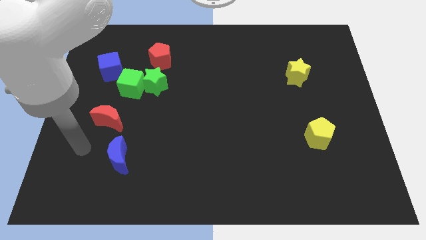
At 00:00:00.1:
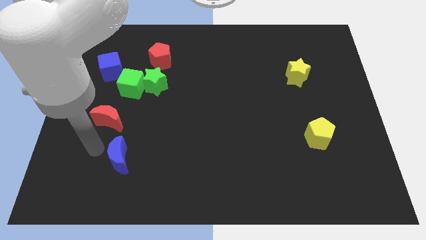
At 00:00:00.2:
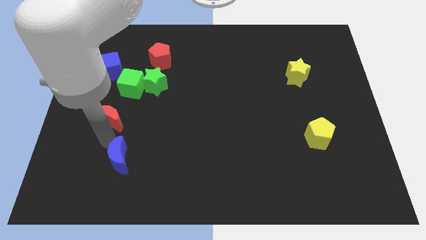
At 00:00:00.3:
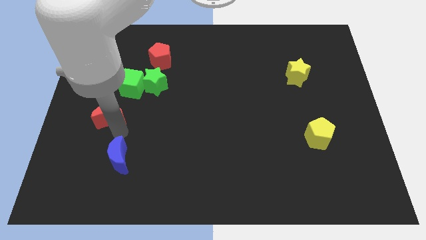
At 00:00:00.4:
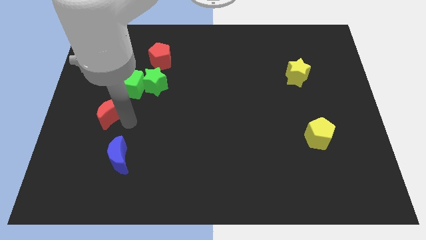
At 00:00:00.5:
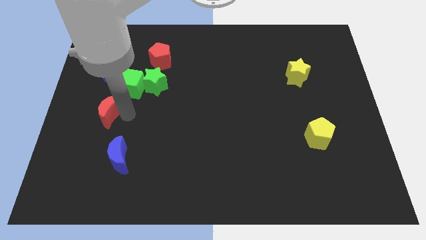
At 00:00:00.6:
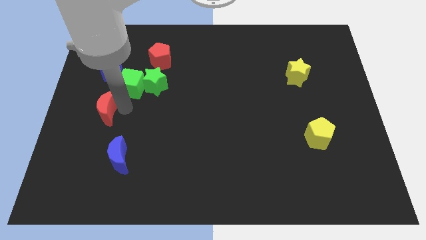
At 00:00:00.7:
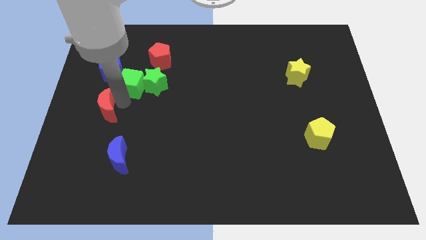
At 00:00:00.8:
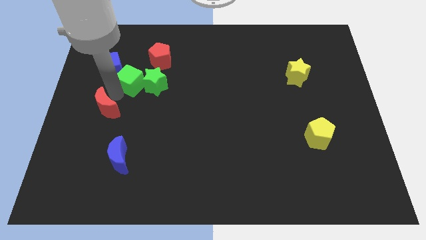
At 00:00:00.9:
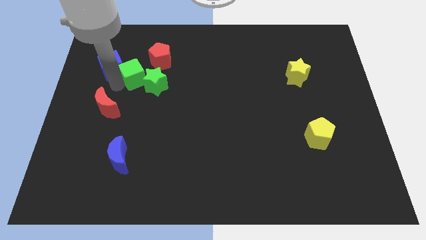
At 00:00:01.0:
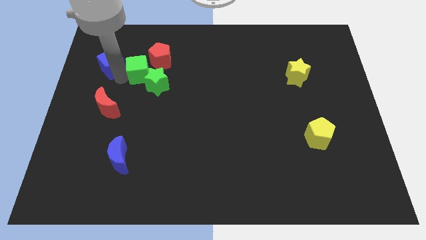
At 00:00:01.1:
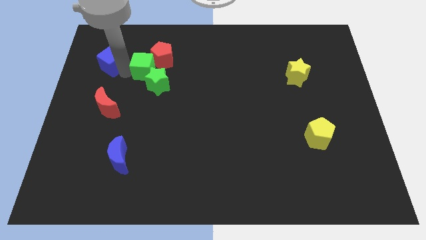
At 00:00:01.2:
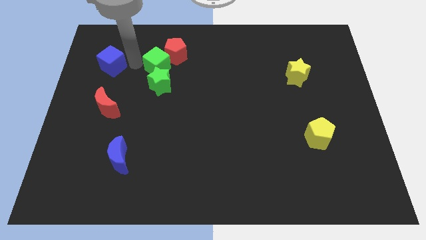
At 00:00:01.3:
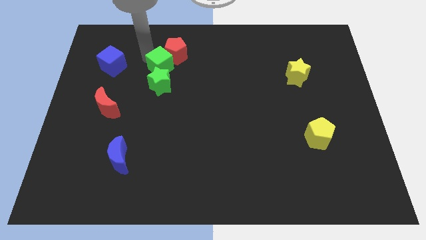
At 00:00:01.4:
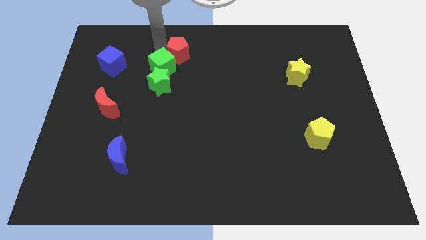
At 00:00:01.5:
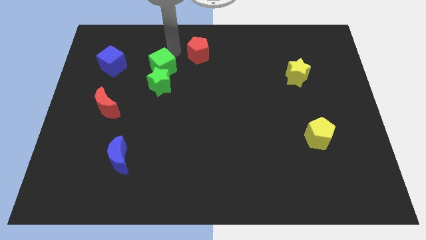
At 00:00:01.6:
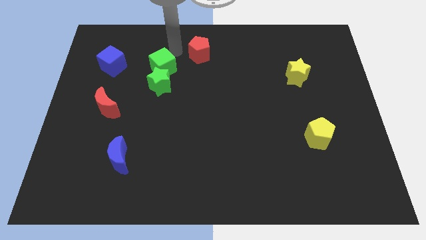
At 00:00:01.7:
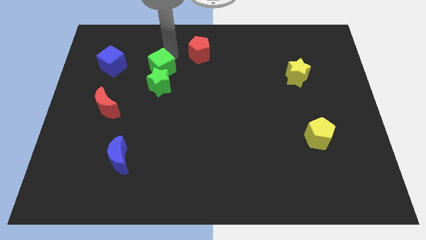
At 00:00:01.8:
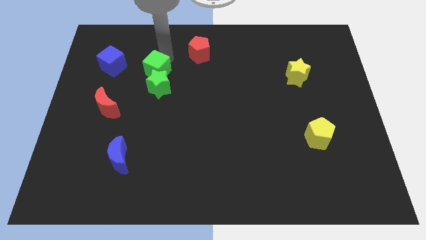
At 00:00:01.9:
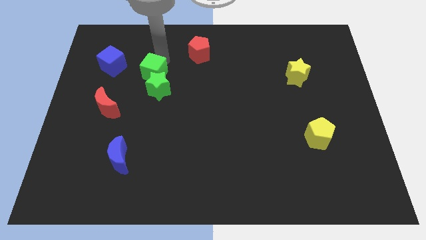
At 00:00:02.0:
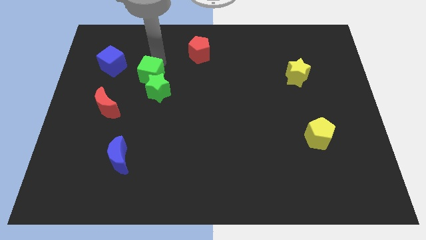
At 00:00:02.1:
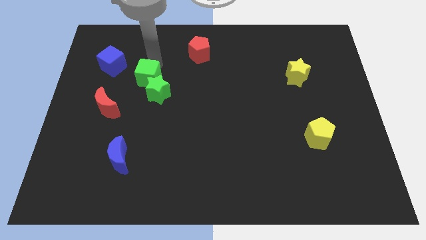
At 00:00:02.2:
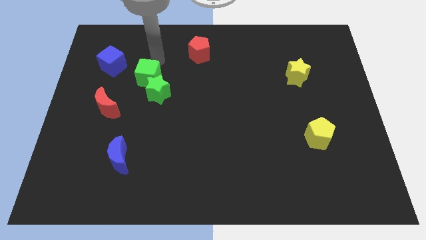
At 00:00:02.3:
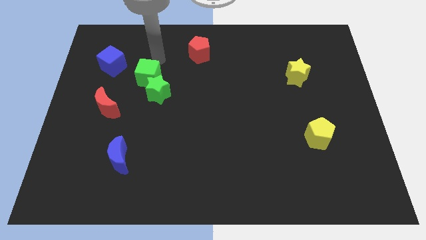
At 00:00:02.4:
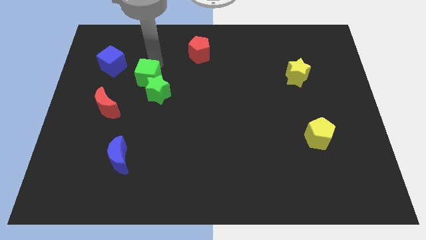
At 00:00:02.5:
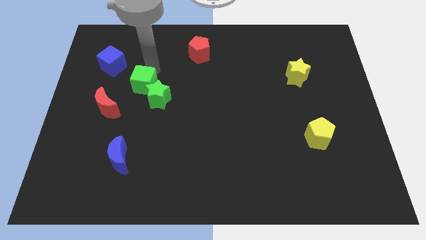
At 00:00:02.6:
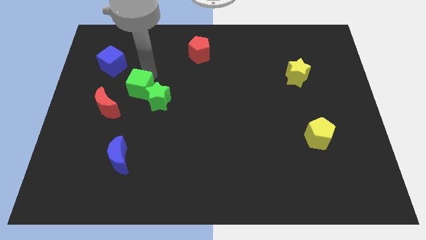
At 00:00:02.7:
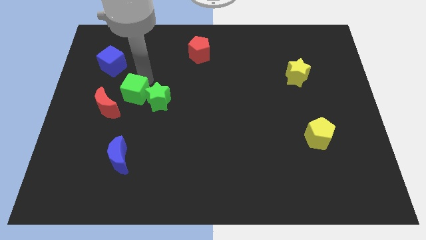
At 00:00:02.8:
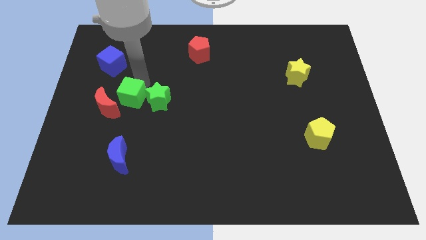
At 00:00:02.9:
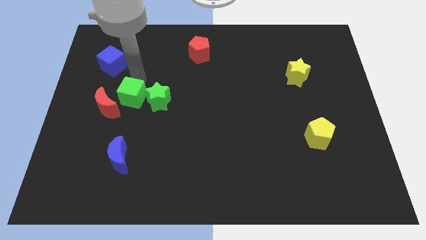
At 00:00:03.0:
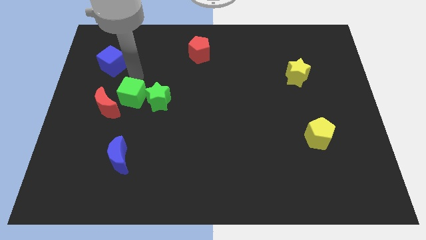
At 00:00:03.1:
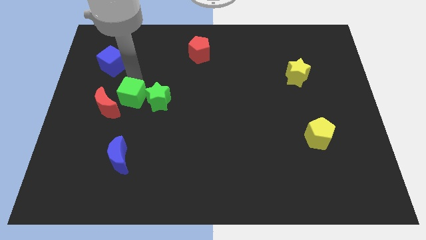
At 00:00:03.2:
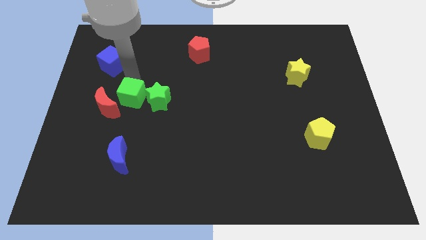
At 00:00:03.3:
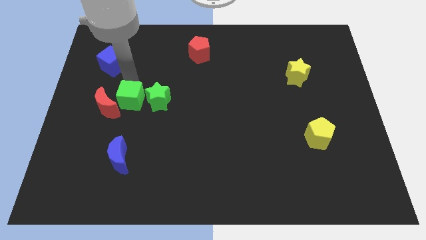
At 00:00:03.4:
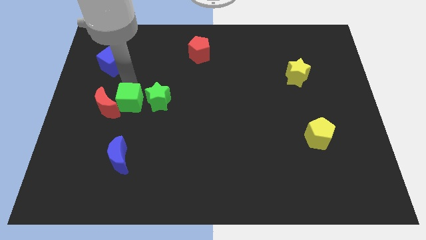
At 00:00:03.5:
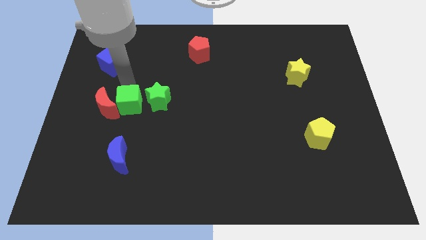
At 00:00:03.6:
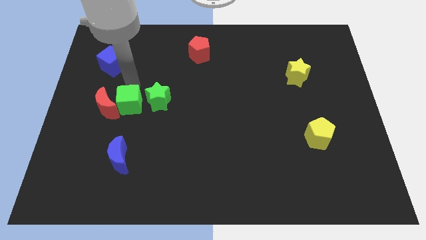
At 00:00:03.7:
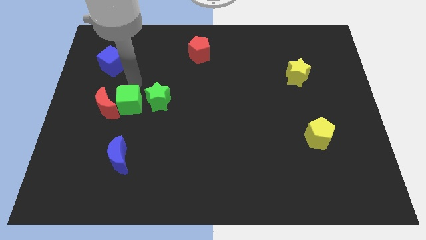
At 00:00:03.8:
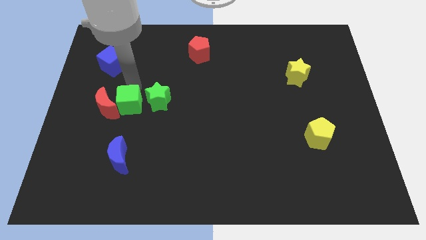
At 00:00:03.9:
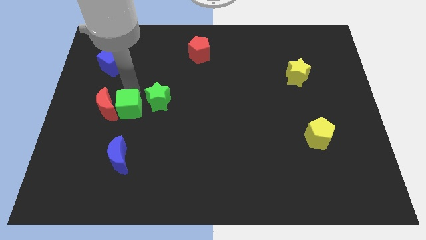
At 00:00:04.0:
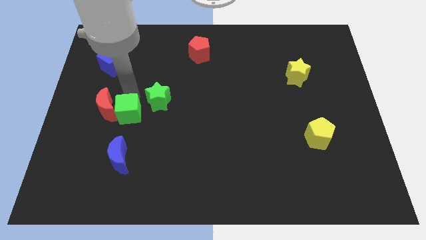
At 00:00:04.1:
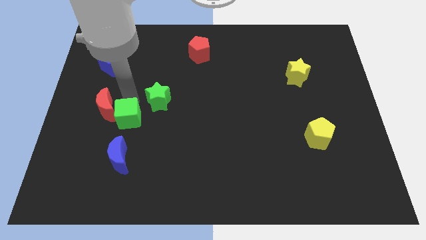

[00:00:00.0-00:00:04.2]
pull the green cube apart from the green star and blue cube

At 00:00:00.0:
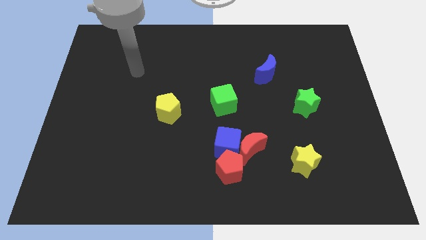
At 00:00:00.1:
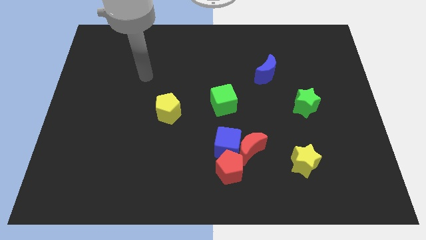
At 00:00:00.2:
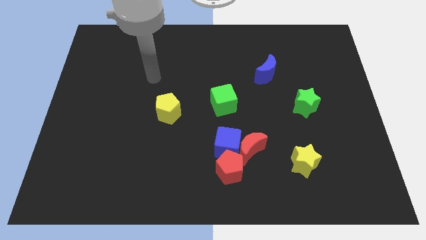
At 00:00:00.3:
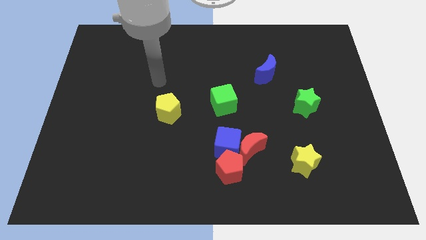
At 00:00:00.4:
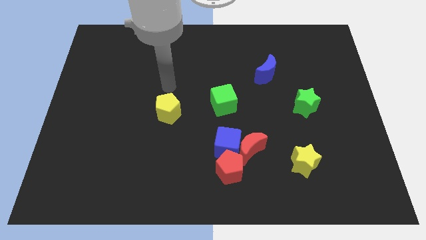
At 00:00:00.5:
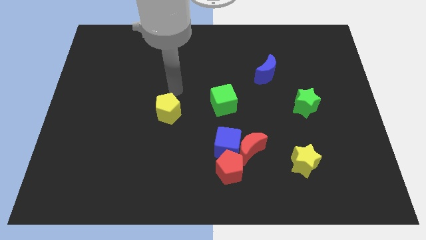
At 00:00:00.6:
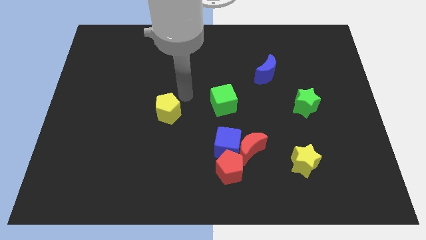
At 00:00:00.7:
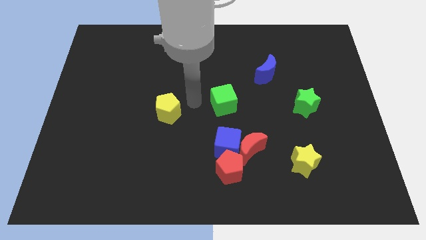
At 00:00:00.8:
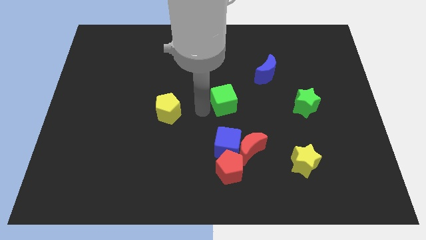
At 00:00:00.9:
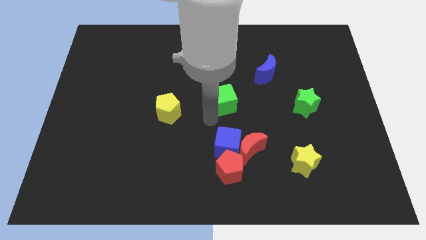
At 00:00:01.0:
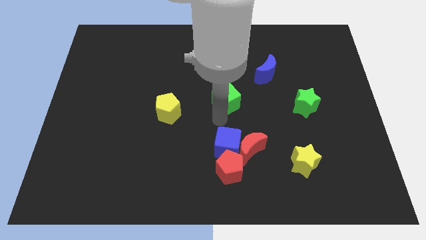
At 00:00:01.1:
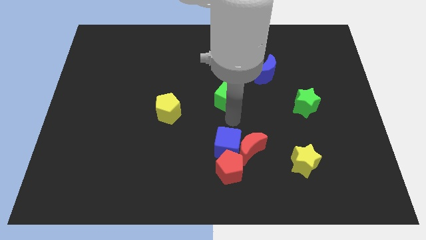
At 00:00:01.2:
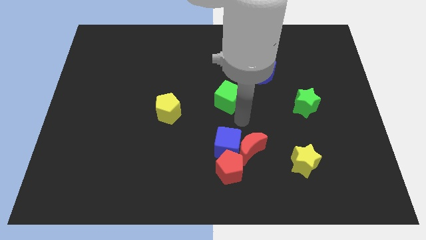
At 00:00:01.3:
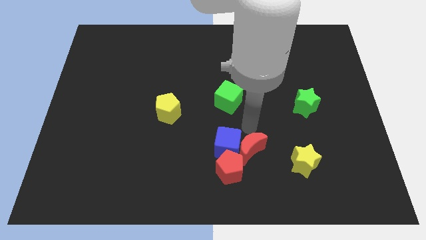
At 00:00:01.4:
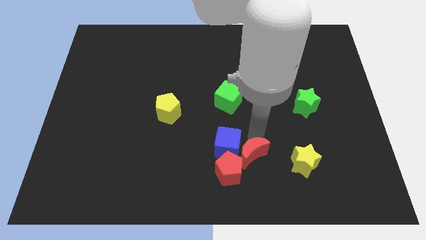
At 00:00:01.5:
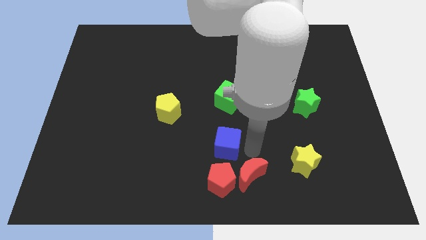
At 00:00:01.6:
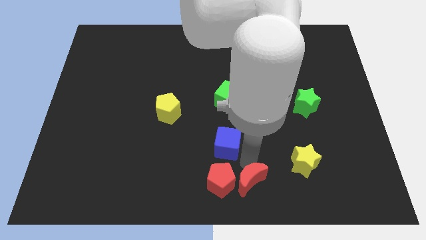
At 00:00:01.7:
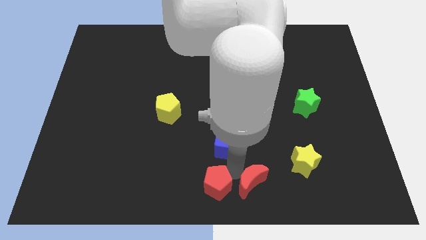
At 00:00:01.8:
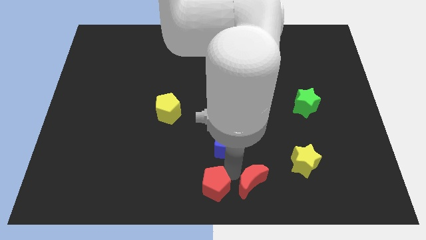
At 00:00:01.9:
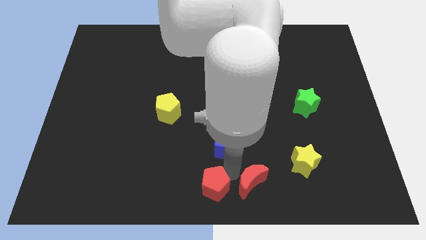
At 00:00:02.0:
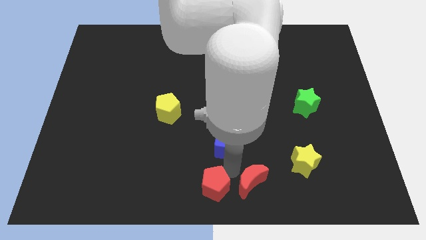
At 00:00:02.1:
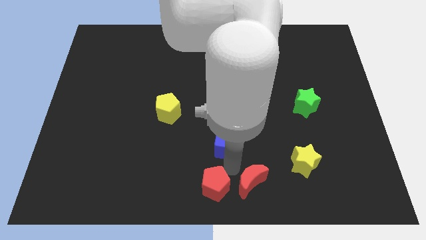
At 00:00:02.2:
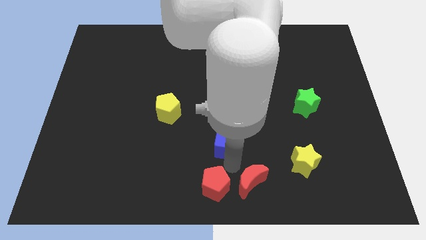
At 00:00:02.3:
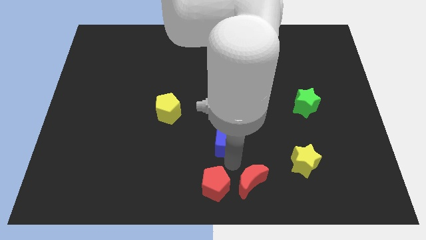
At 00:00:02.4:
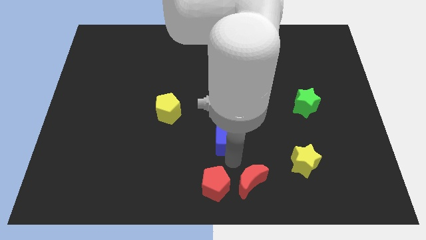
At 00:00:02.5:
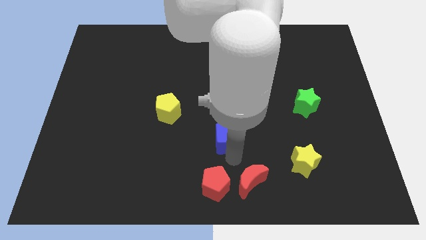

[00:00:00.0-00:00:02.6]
separate the blue cube from the red moon and red pentagon

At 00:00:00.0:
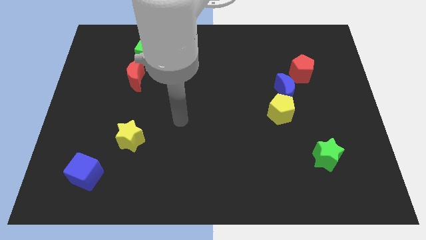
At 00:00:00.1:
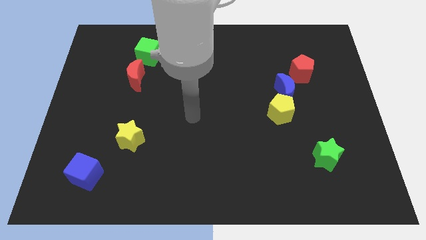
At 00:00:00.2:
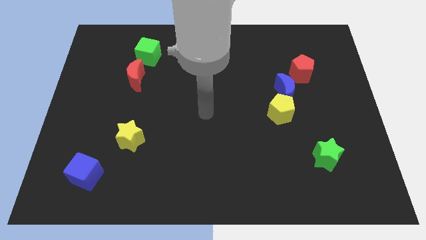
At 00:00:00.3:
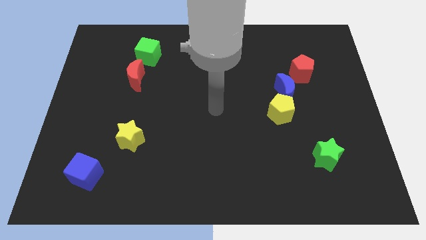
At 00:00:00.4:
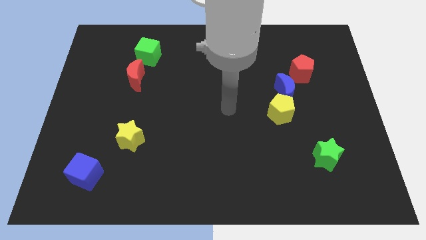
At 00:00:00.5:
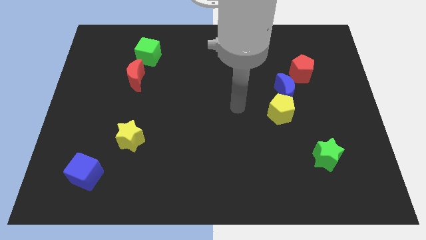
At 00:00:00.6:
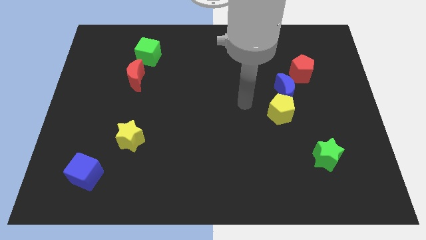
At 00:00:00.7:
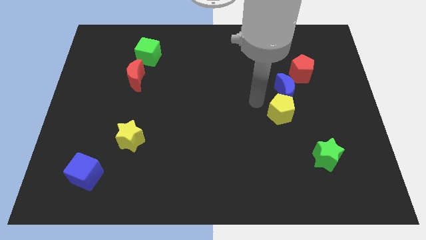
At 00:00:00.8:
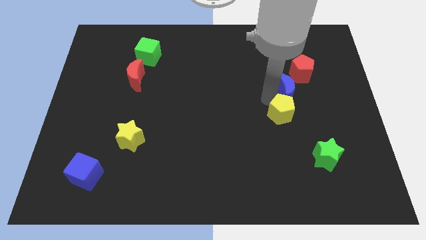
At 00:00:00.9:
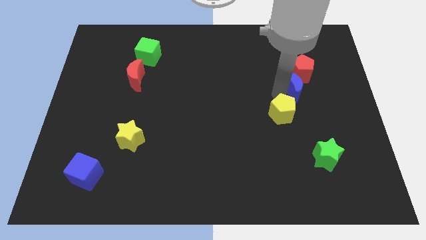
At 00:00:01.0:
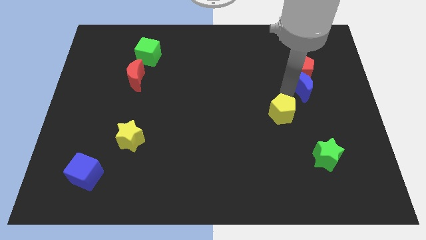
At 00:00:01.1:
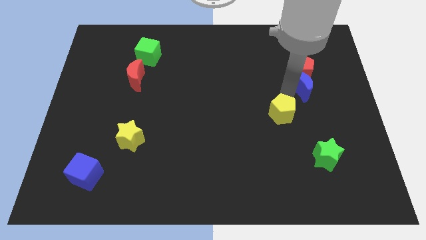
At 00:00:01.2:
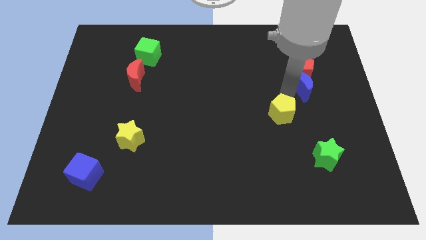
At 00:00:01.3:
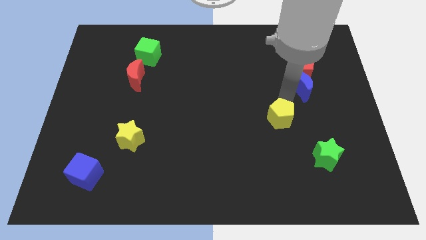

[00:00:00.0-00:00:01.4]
pull the yellow pentagon apart from the blue moon

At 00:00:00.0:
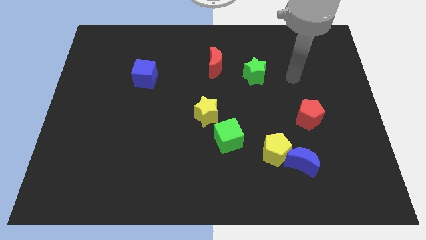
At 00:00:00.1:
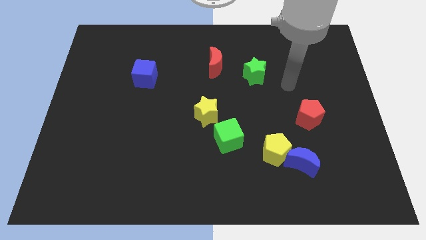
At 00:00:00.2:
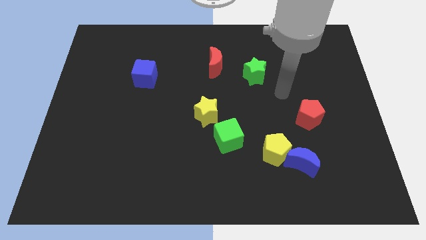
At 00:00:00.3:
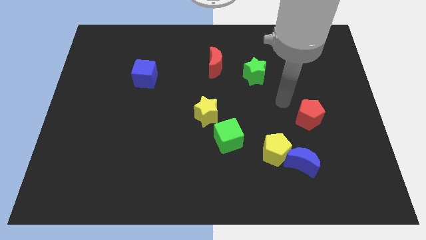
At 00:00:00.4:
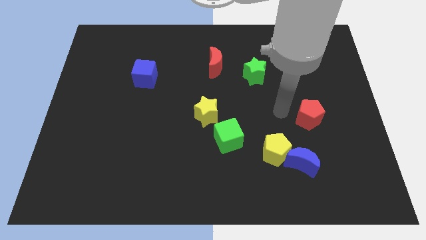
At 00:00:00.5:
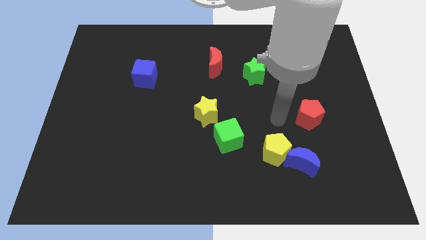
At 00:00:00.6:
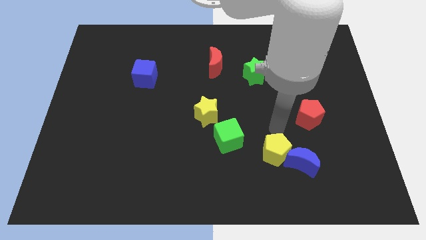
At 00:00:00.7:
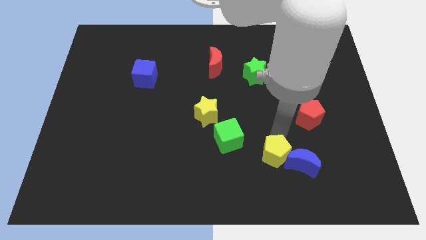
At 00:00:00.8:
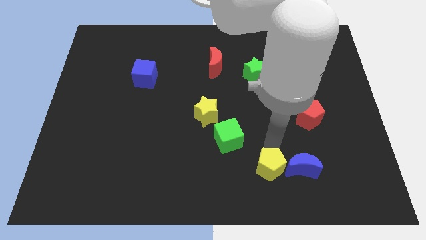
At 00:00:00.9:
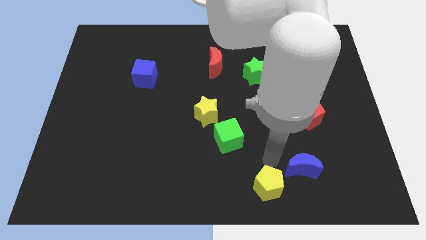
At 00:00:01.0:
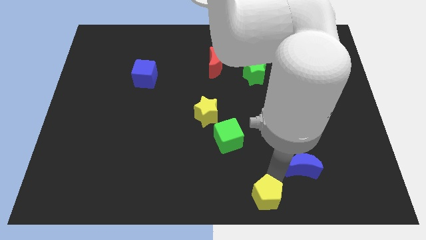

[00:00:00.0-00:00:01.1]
pull the blue moon apart from the yellow pentagon
